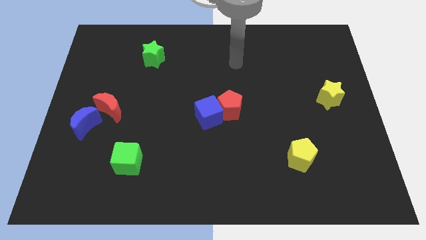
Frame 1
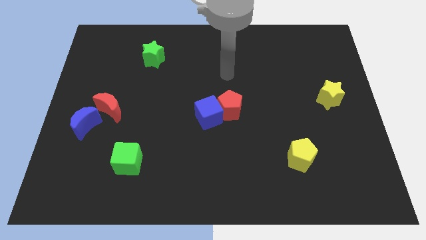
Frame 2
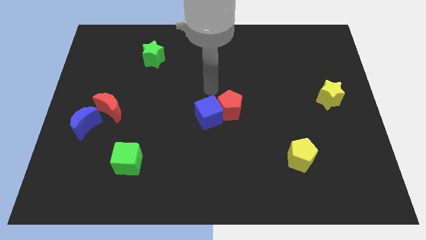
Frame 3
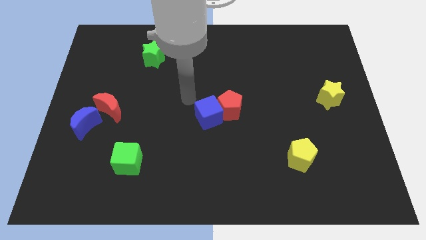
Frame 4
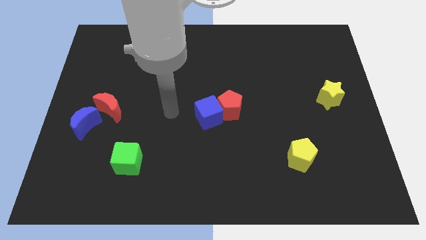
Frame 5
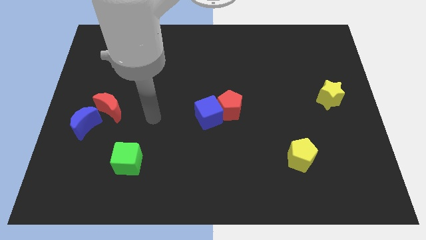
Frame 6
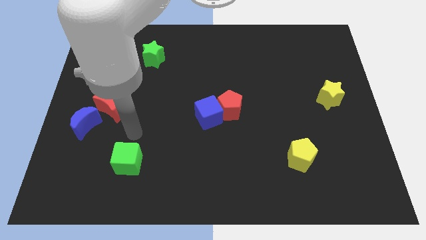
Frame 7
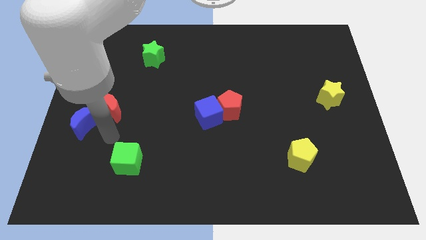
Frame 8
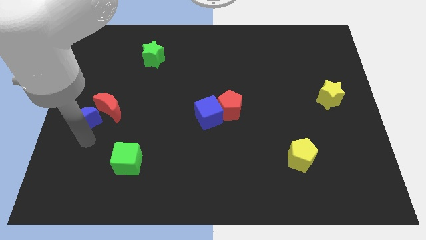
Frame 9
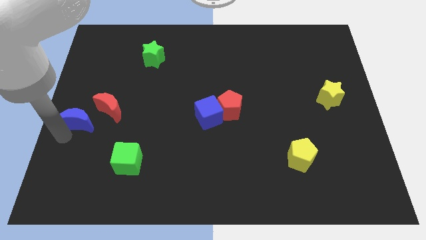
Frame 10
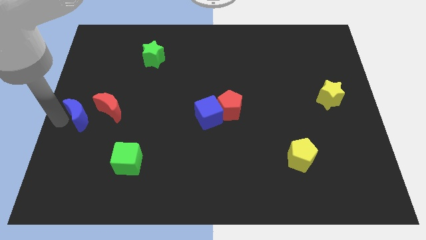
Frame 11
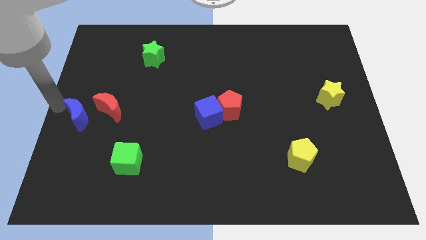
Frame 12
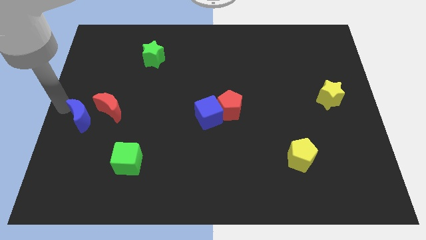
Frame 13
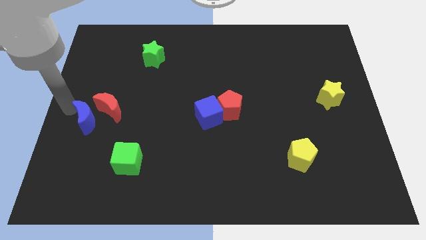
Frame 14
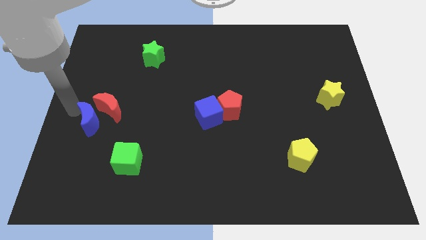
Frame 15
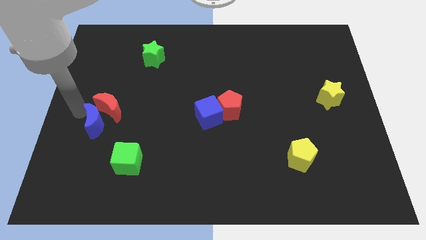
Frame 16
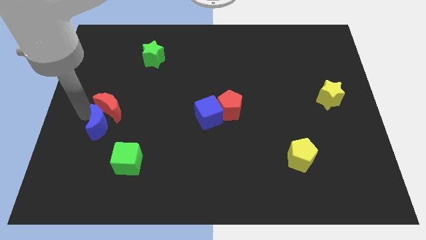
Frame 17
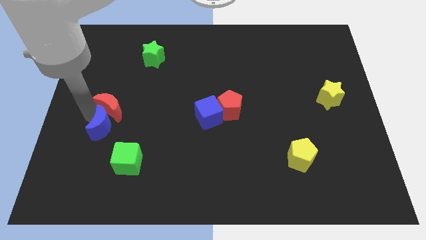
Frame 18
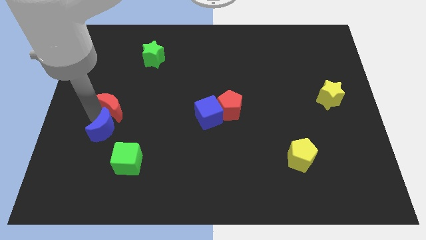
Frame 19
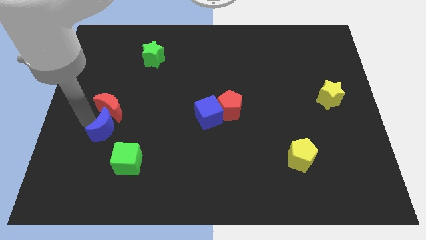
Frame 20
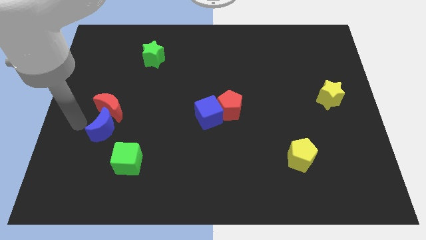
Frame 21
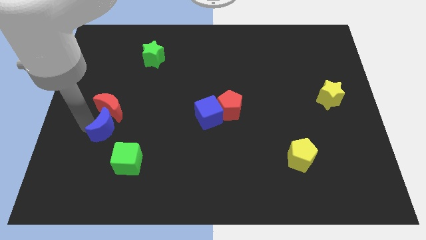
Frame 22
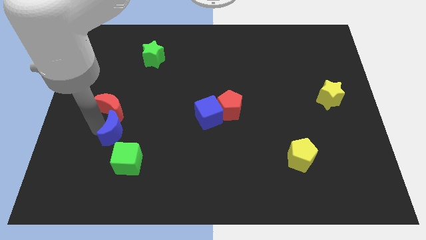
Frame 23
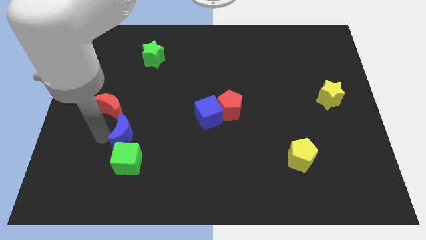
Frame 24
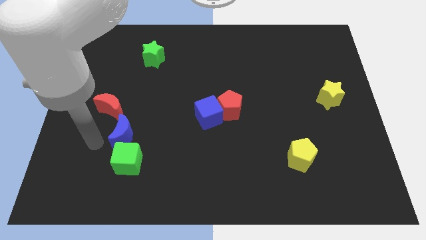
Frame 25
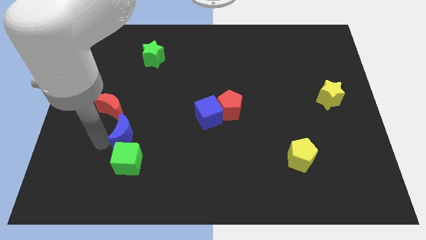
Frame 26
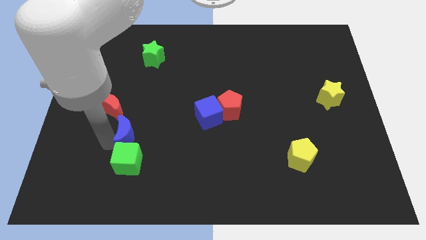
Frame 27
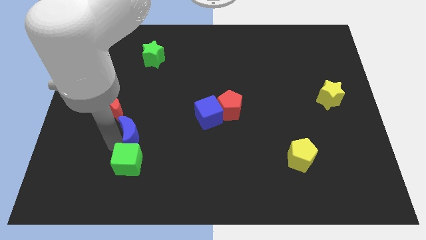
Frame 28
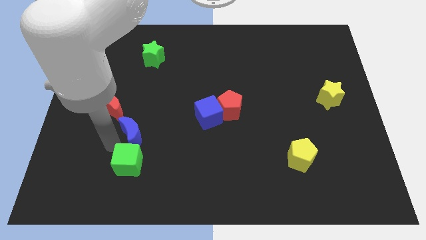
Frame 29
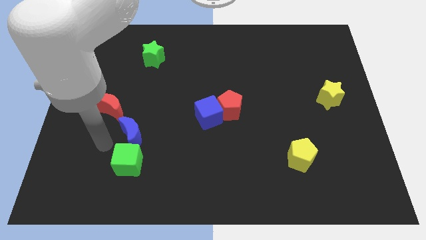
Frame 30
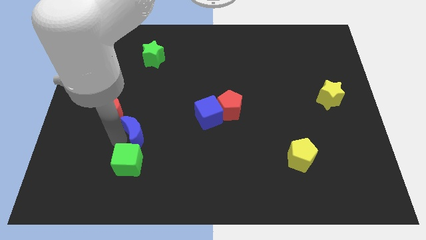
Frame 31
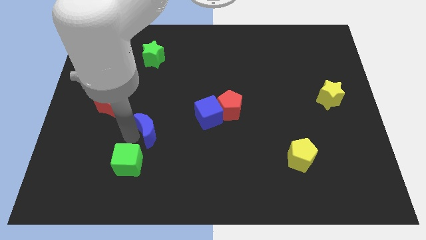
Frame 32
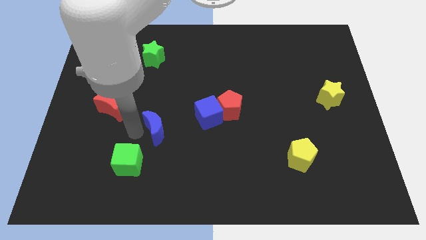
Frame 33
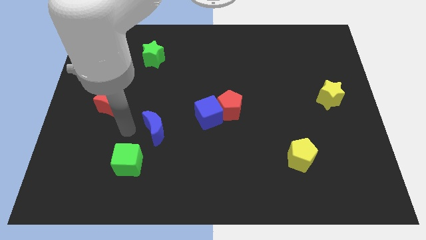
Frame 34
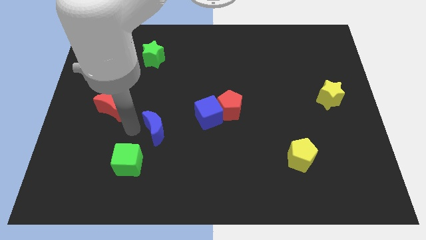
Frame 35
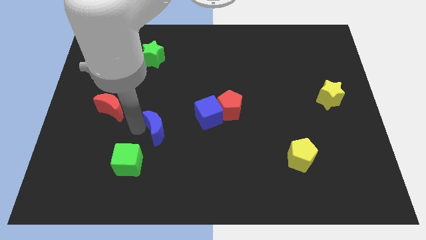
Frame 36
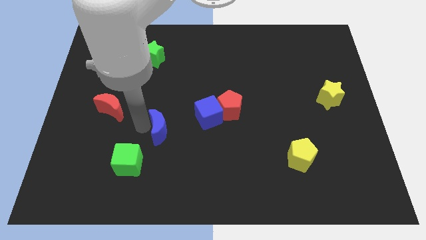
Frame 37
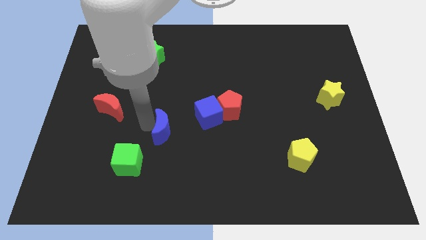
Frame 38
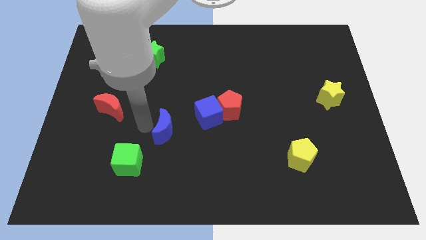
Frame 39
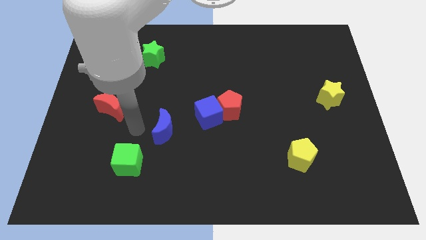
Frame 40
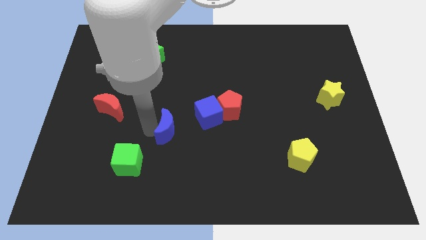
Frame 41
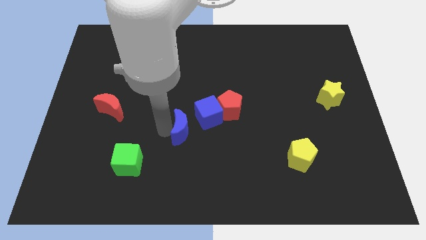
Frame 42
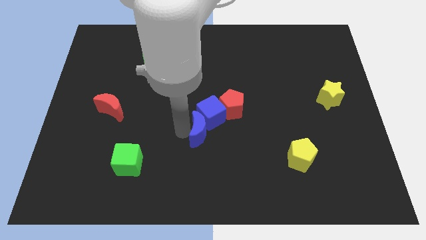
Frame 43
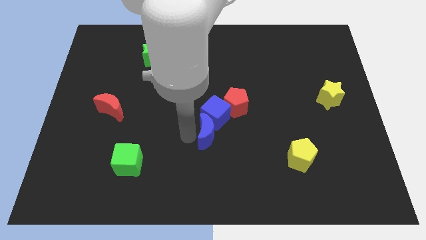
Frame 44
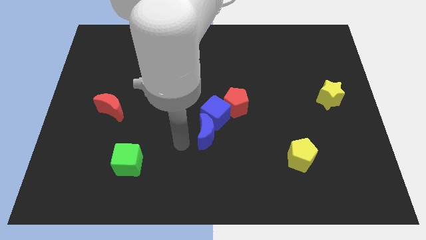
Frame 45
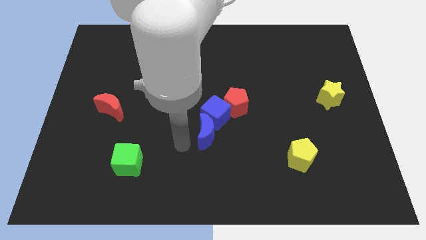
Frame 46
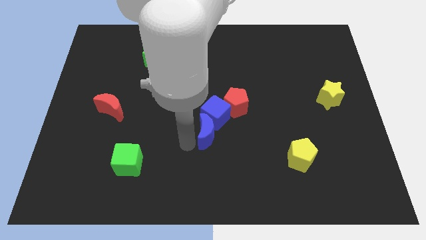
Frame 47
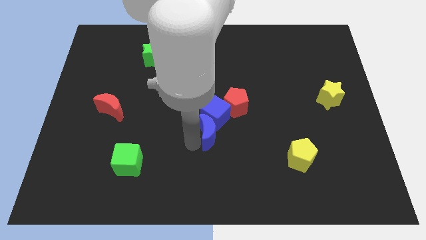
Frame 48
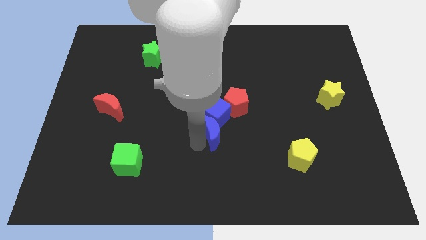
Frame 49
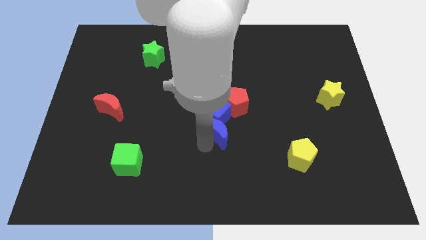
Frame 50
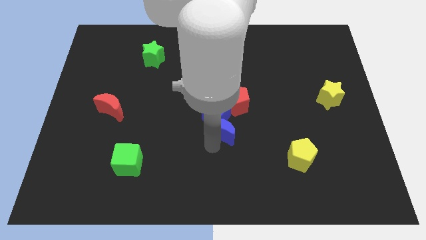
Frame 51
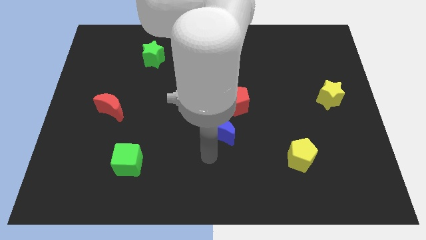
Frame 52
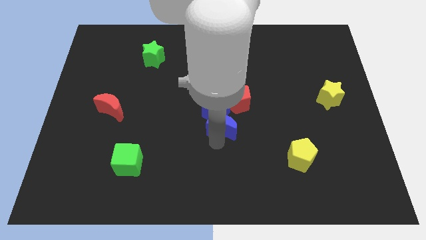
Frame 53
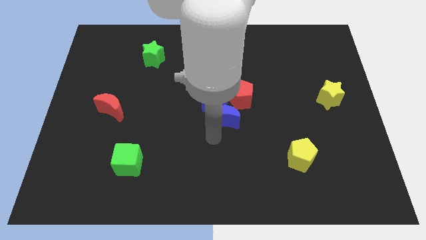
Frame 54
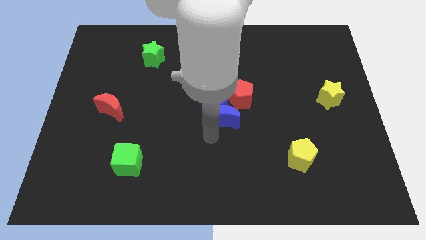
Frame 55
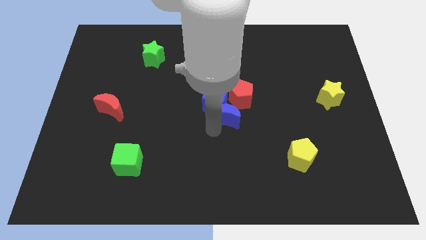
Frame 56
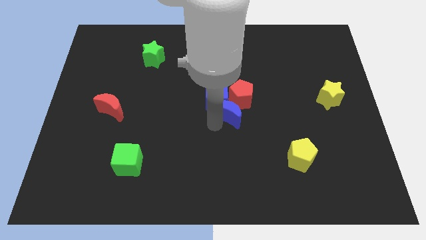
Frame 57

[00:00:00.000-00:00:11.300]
slide the blue moon to the red pentagon

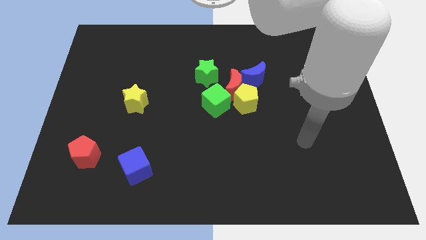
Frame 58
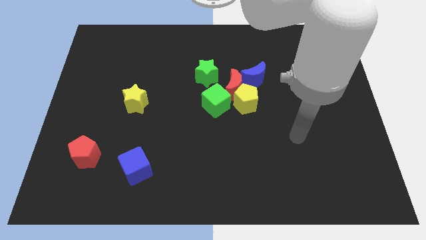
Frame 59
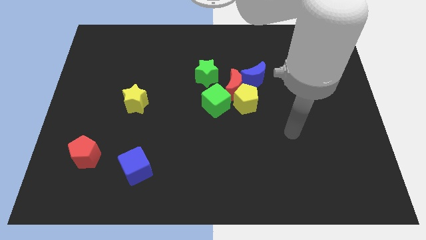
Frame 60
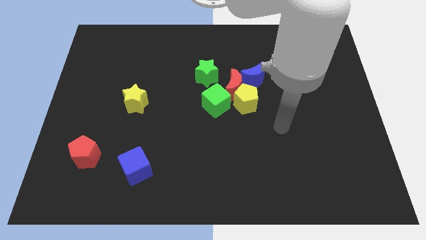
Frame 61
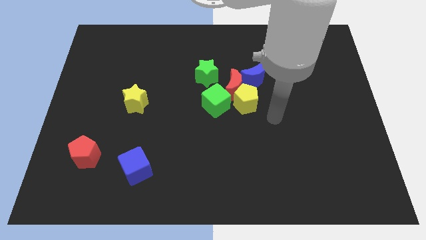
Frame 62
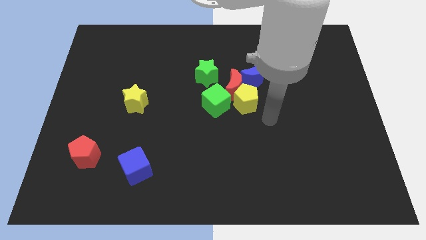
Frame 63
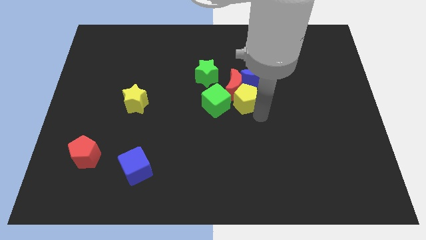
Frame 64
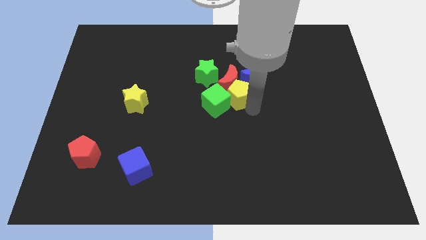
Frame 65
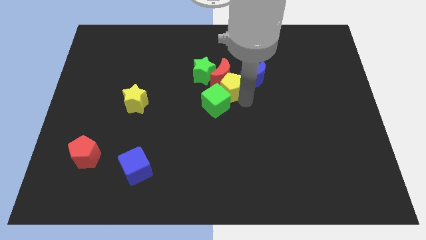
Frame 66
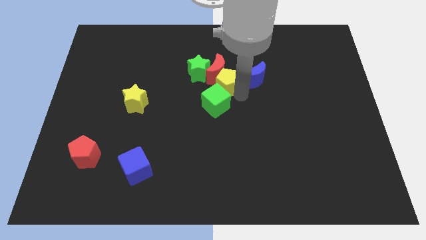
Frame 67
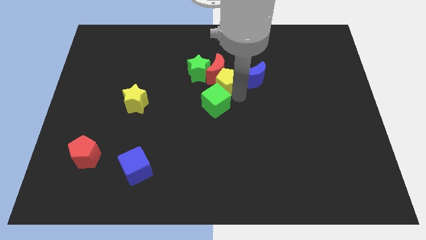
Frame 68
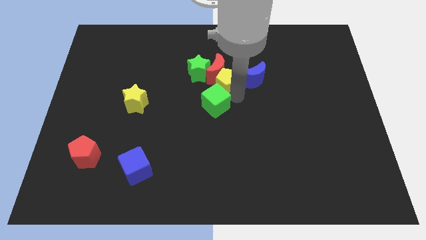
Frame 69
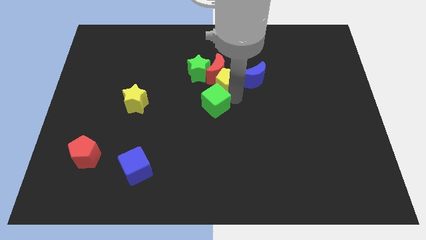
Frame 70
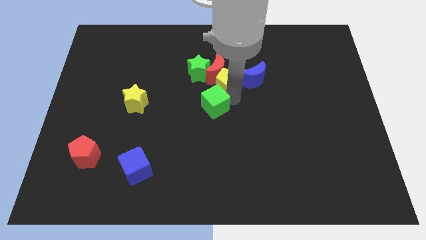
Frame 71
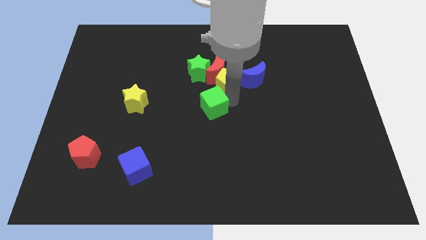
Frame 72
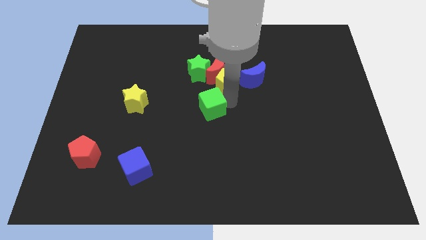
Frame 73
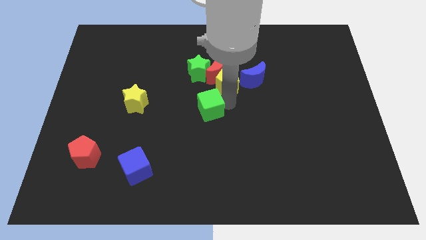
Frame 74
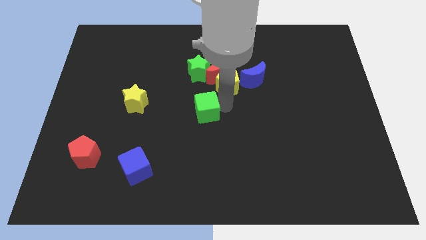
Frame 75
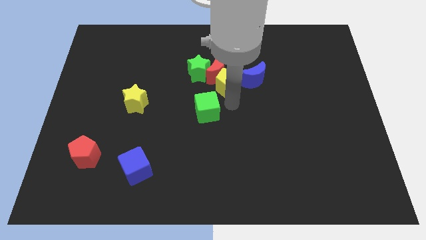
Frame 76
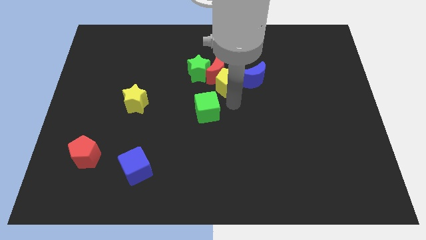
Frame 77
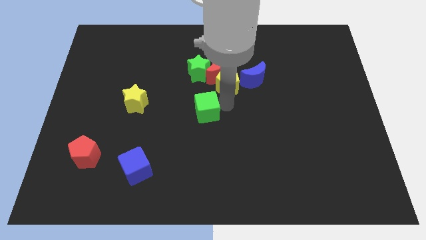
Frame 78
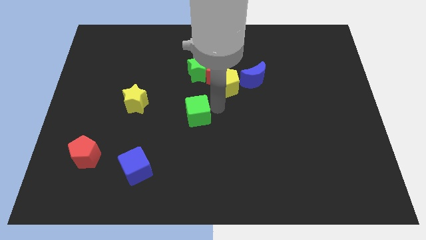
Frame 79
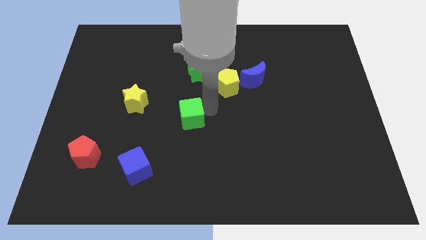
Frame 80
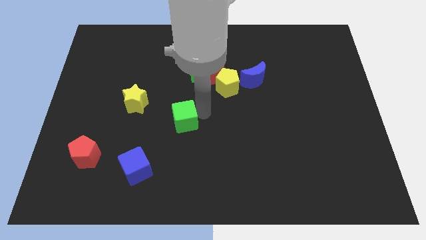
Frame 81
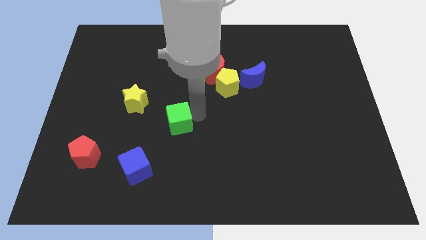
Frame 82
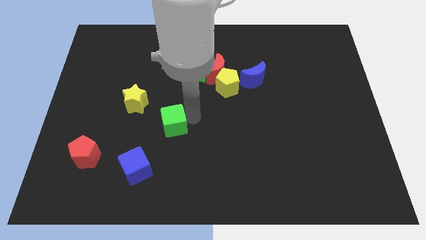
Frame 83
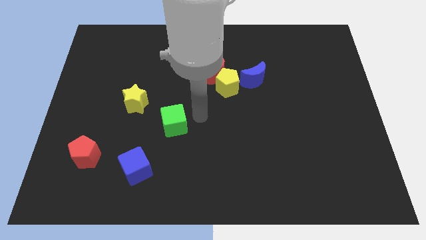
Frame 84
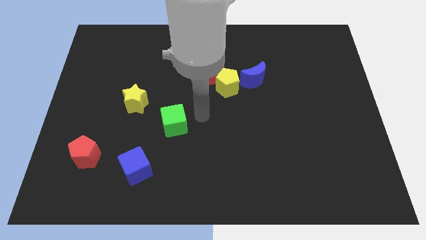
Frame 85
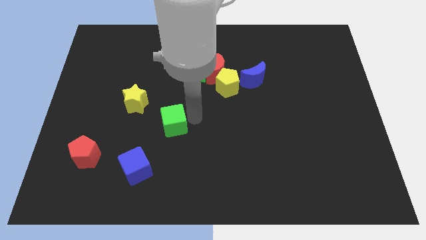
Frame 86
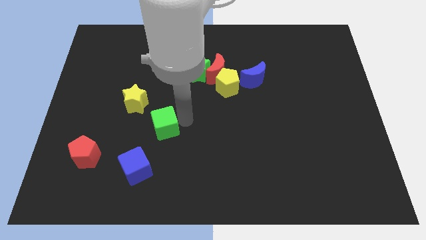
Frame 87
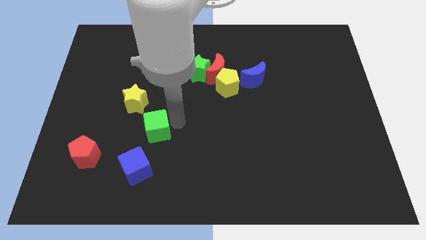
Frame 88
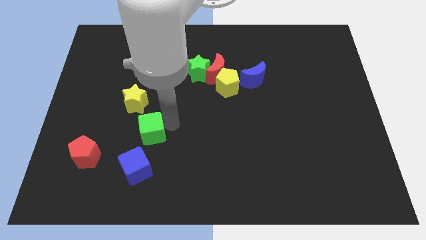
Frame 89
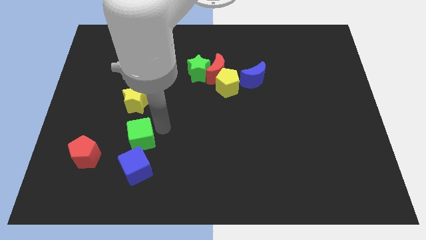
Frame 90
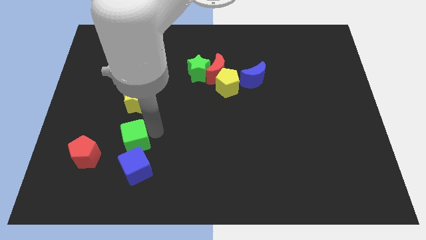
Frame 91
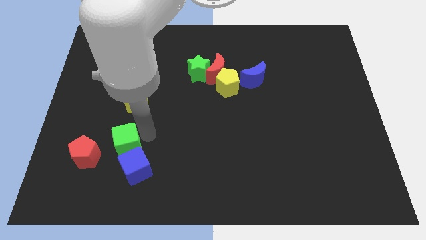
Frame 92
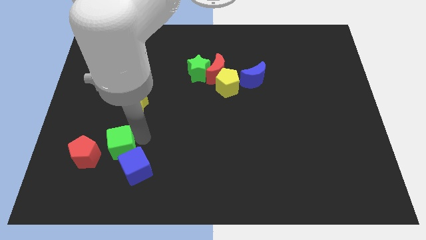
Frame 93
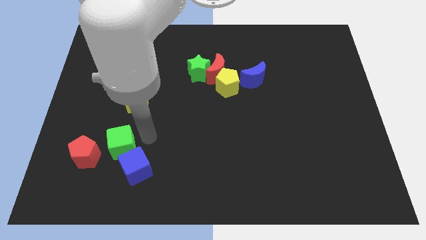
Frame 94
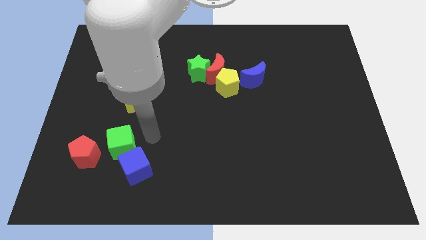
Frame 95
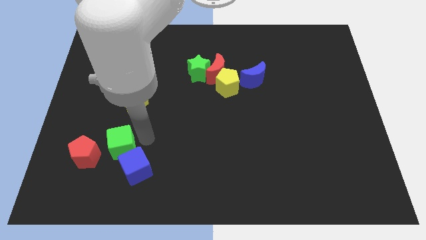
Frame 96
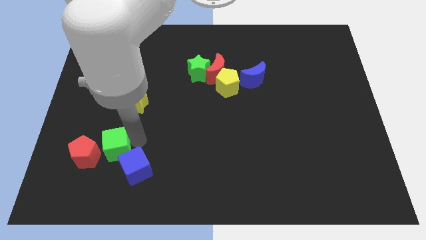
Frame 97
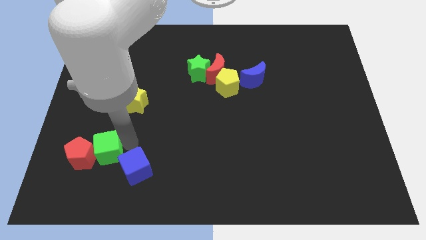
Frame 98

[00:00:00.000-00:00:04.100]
push the green cube next to the red pentagon
